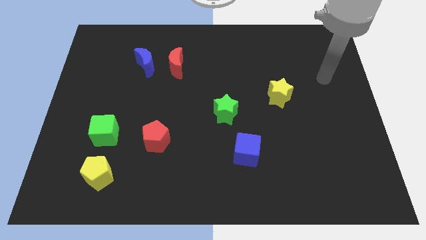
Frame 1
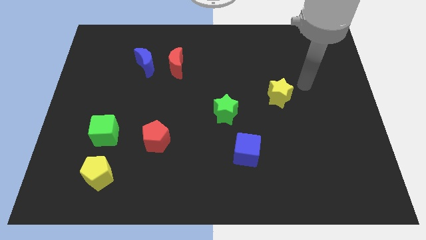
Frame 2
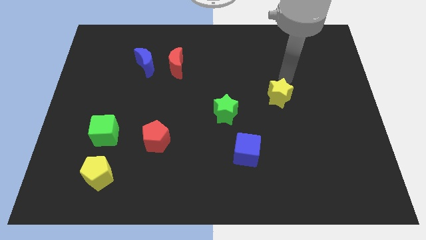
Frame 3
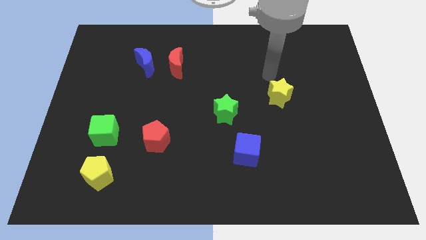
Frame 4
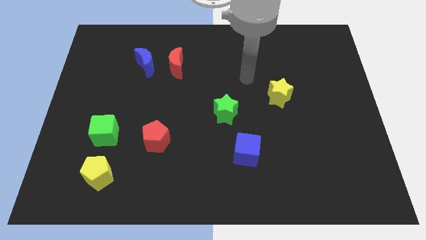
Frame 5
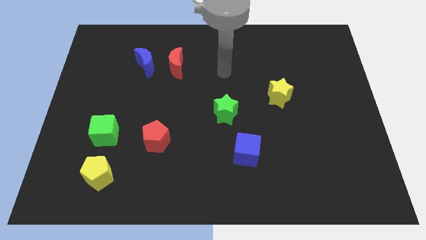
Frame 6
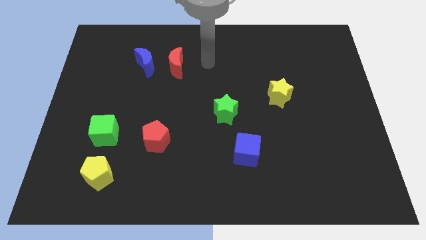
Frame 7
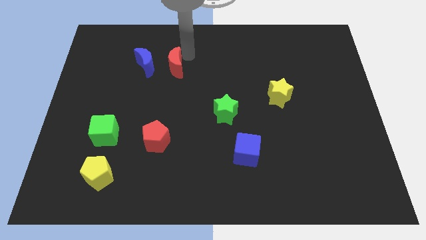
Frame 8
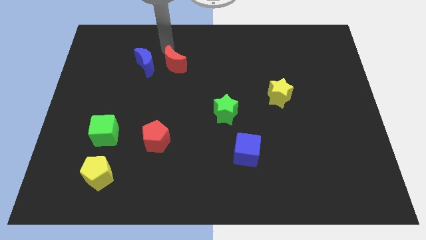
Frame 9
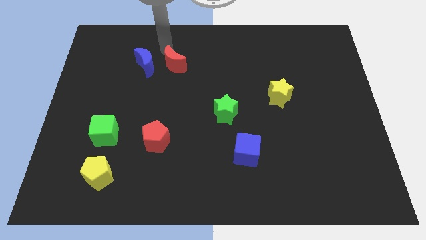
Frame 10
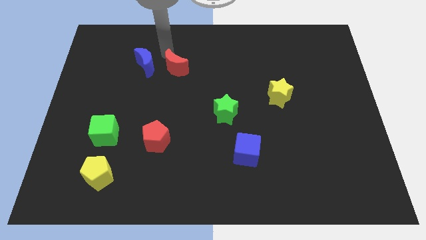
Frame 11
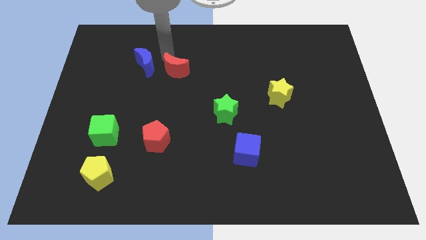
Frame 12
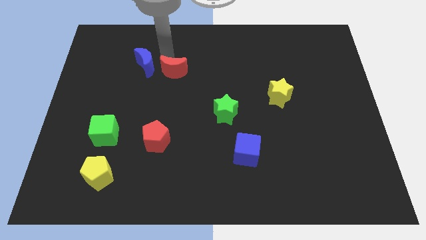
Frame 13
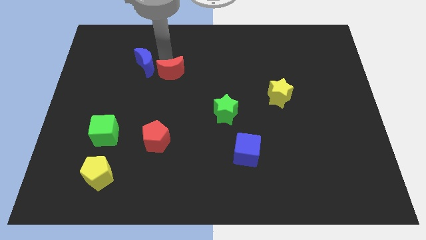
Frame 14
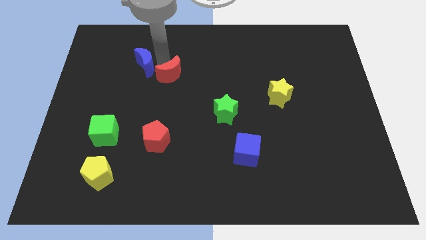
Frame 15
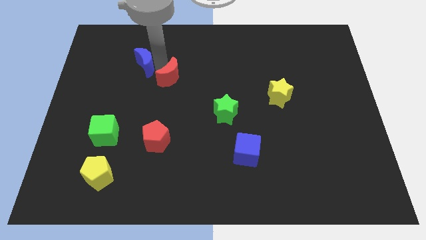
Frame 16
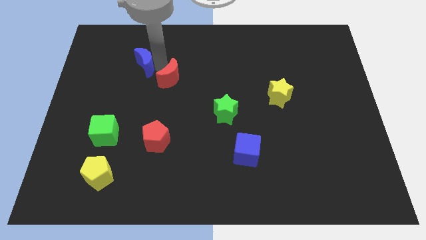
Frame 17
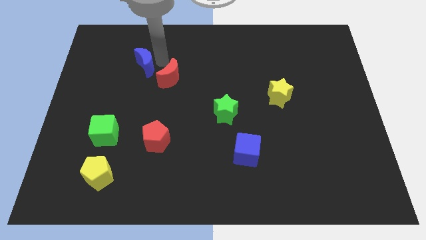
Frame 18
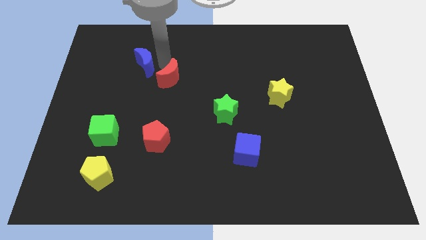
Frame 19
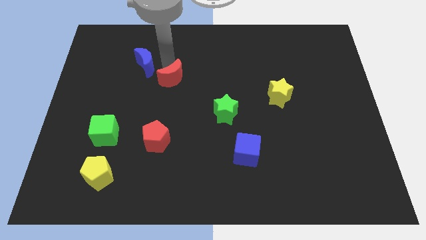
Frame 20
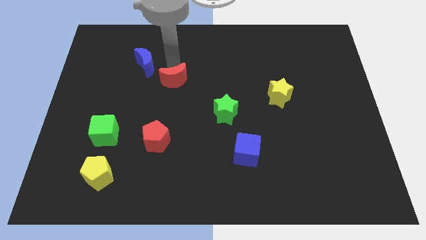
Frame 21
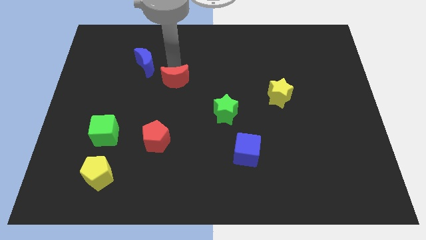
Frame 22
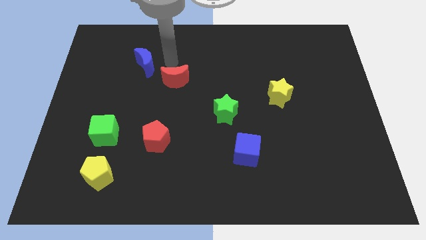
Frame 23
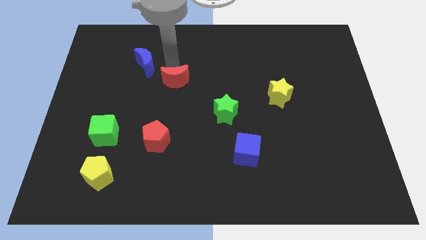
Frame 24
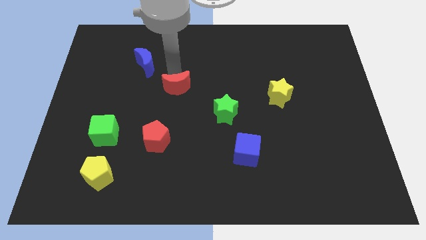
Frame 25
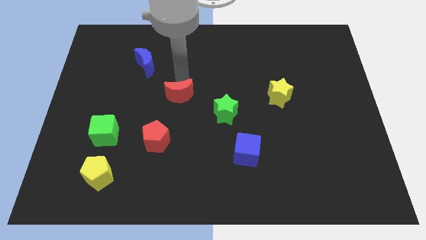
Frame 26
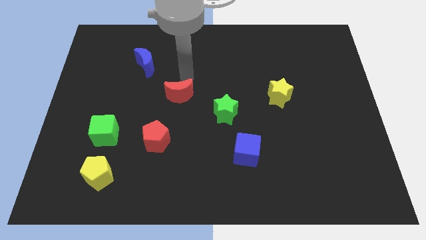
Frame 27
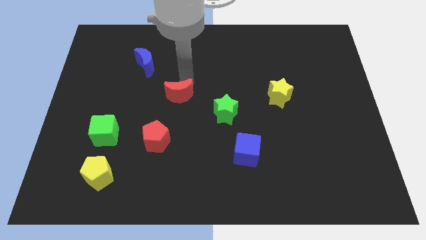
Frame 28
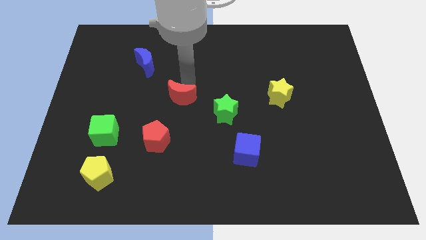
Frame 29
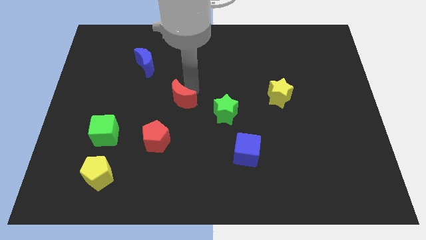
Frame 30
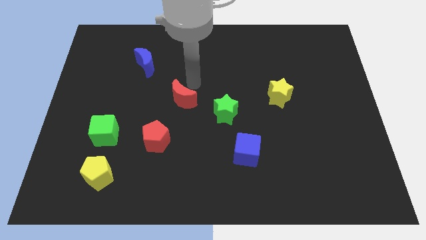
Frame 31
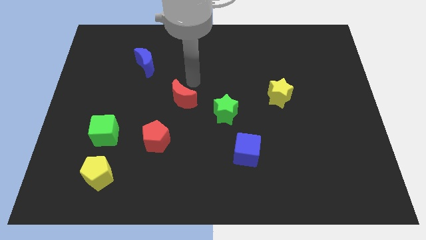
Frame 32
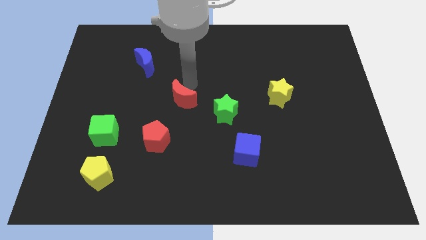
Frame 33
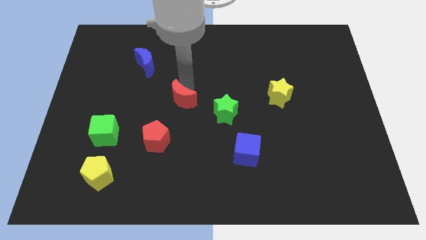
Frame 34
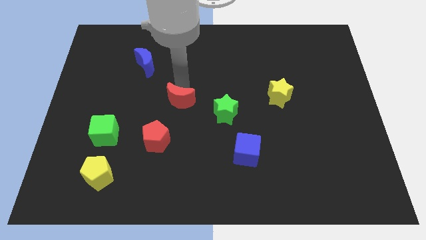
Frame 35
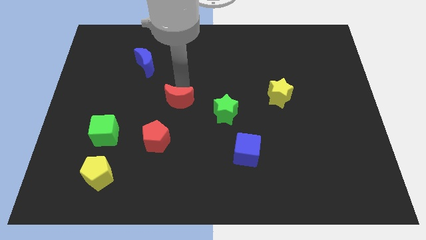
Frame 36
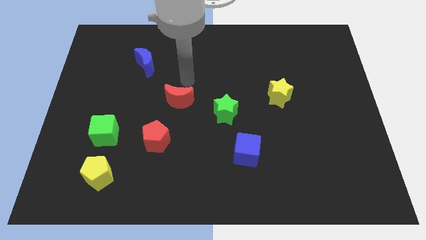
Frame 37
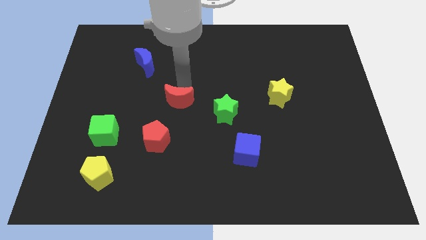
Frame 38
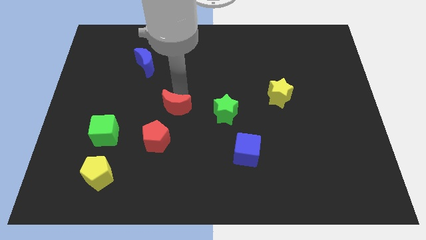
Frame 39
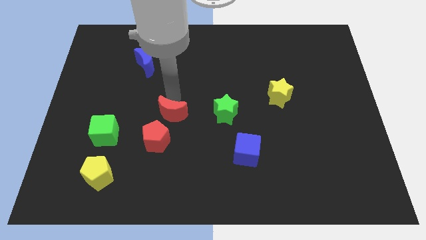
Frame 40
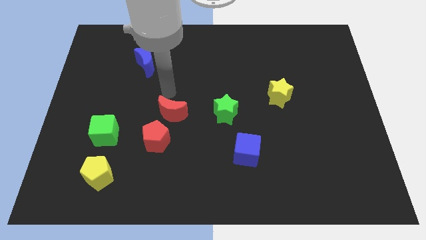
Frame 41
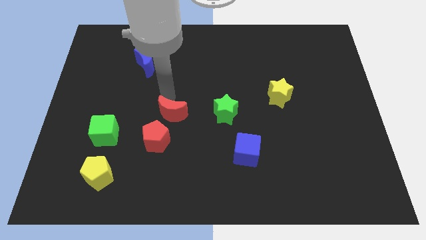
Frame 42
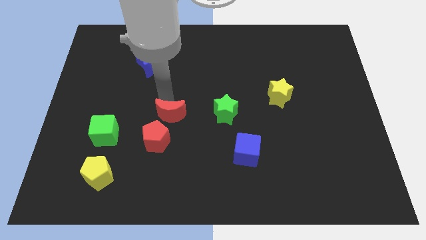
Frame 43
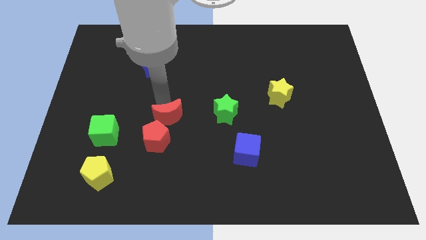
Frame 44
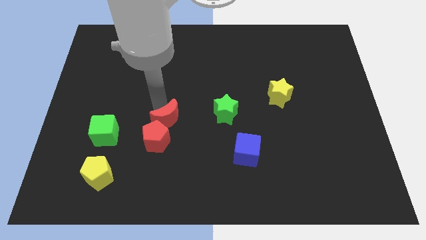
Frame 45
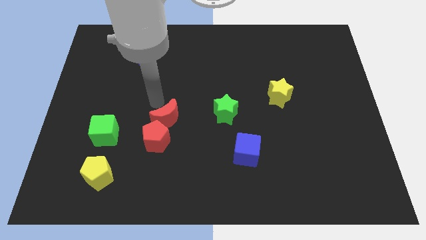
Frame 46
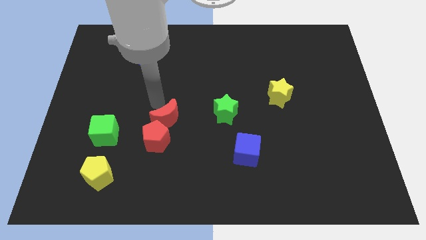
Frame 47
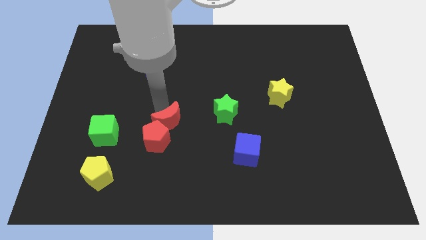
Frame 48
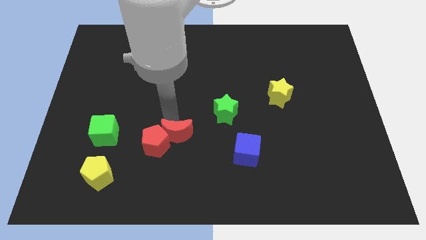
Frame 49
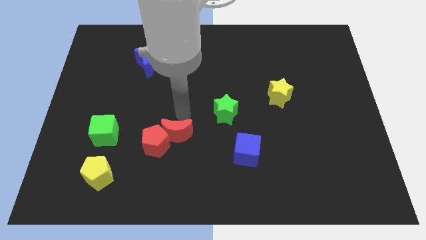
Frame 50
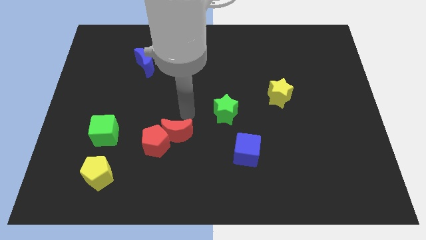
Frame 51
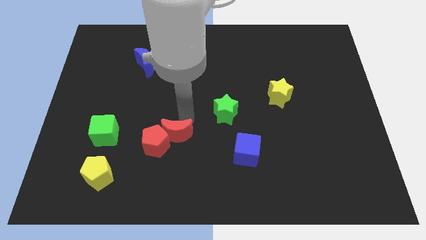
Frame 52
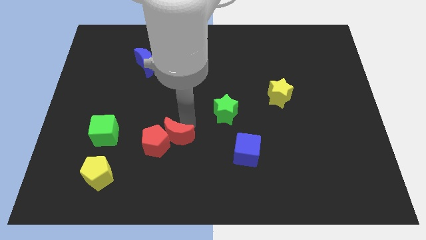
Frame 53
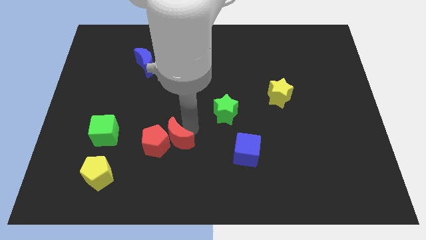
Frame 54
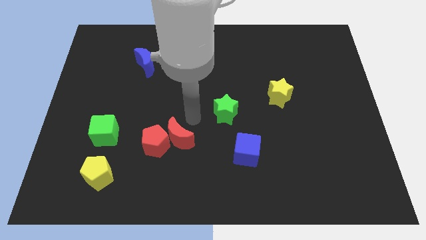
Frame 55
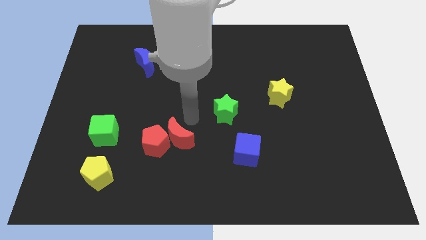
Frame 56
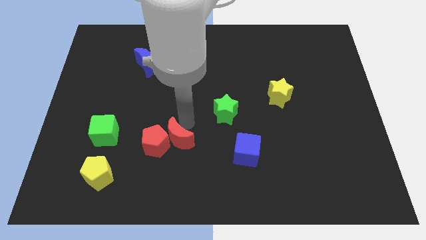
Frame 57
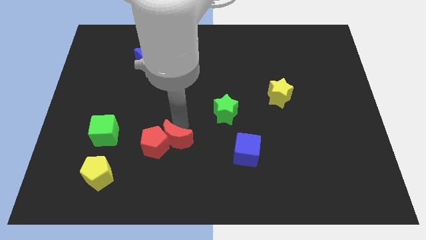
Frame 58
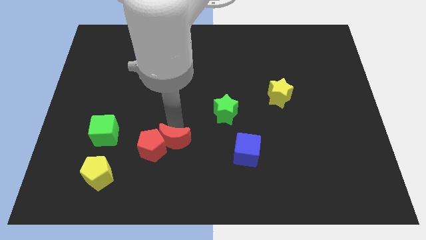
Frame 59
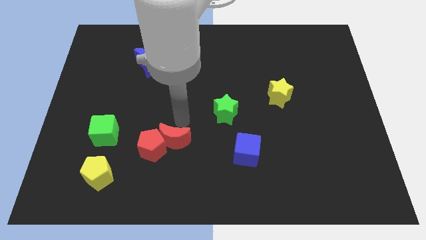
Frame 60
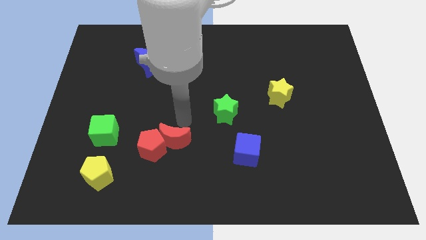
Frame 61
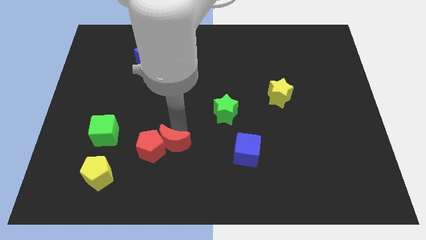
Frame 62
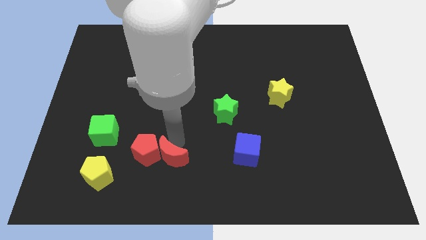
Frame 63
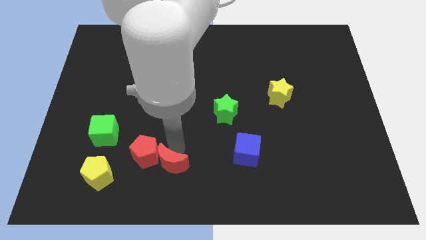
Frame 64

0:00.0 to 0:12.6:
put the red moon right of the yellow pentagon
